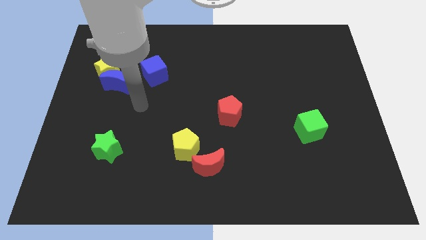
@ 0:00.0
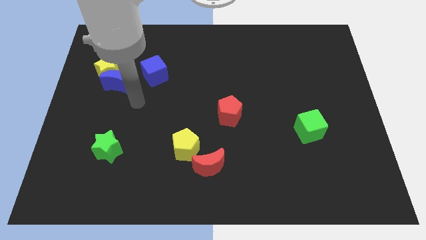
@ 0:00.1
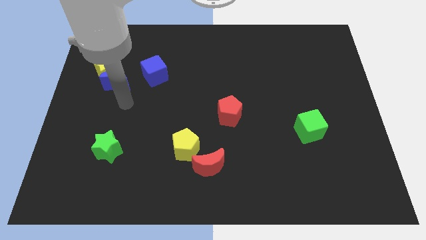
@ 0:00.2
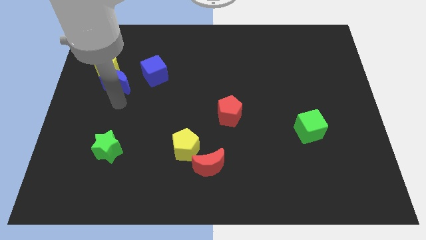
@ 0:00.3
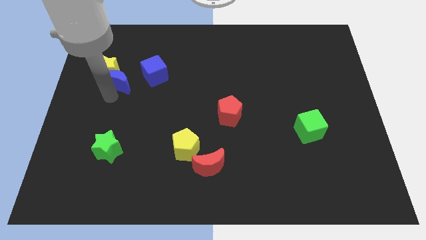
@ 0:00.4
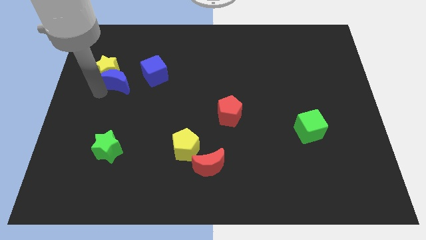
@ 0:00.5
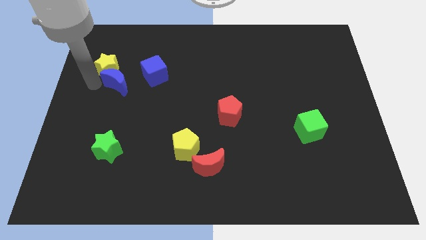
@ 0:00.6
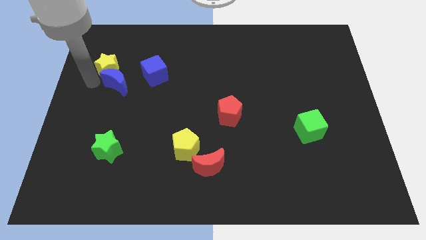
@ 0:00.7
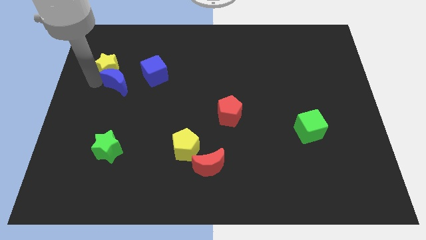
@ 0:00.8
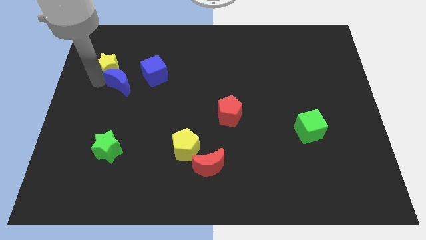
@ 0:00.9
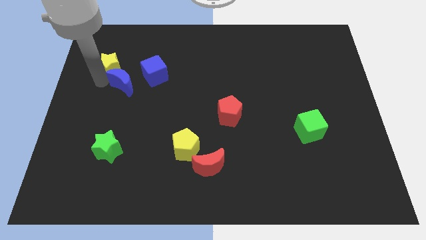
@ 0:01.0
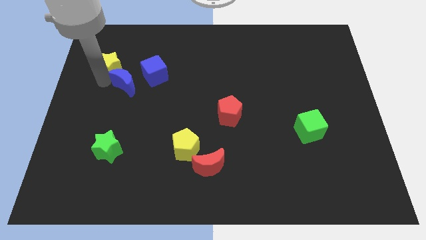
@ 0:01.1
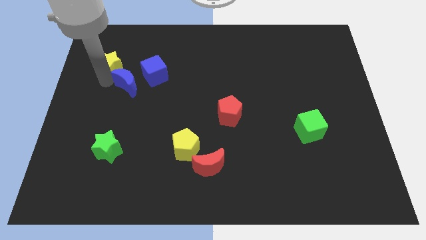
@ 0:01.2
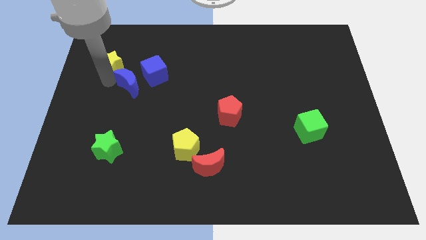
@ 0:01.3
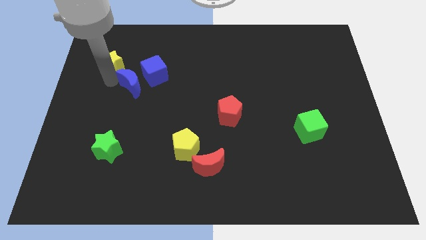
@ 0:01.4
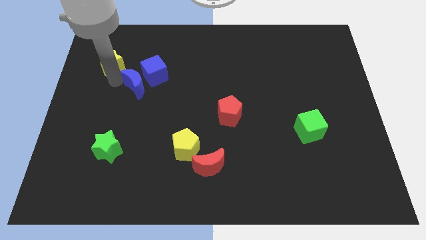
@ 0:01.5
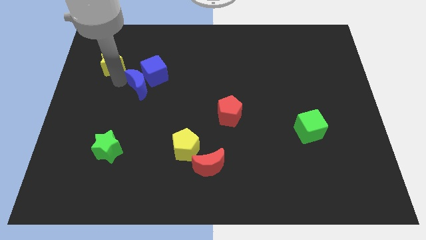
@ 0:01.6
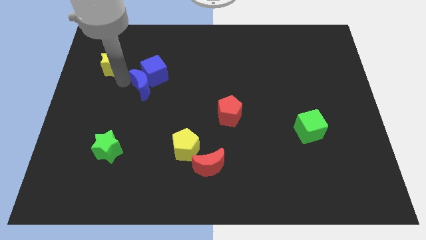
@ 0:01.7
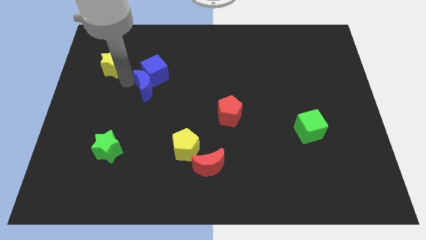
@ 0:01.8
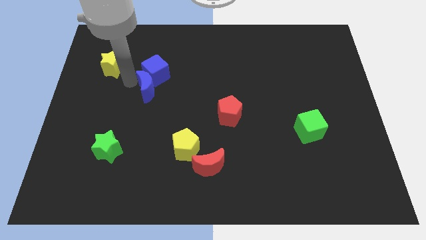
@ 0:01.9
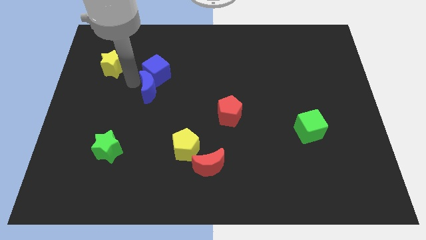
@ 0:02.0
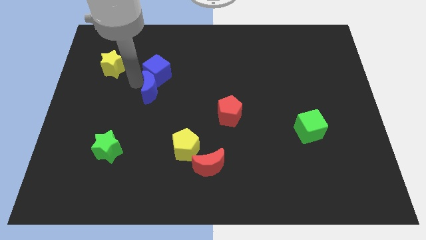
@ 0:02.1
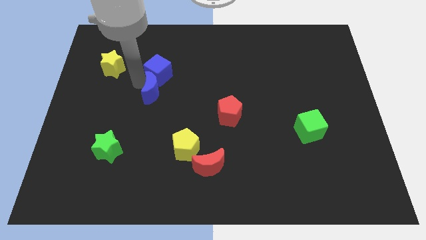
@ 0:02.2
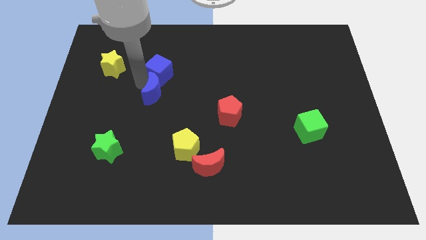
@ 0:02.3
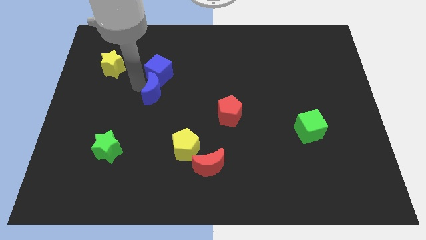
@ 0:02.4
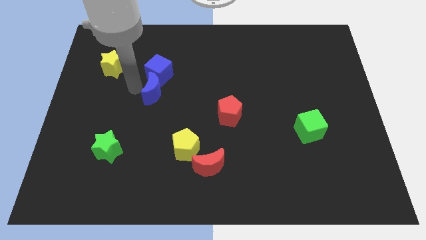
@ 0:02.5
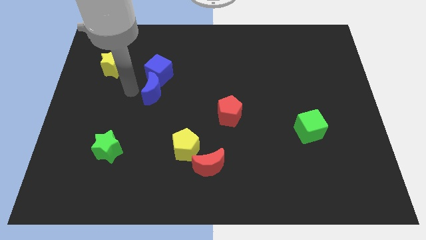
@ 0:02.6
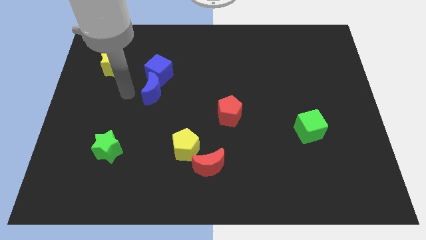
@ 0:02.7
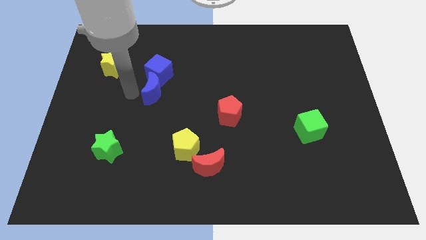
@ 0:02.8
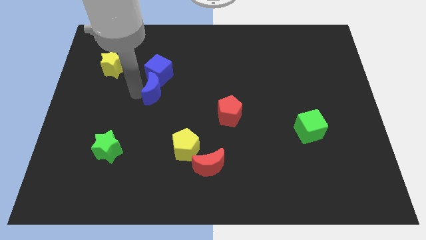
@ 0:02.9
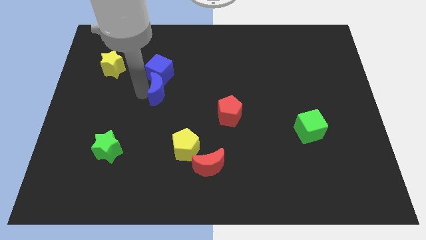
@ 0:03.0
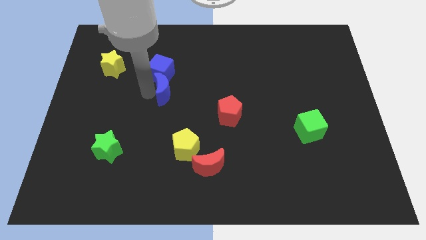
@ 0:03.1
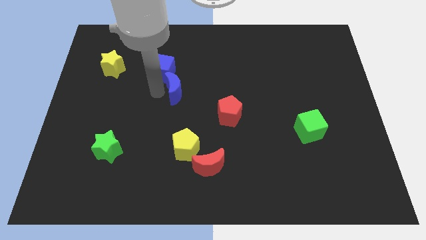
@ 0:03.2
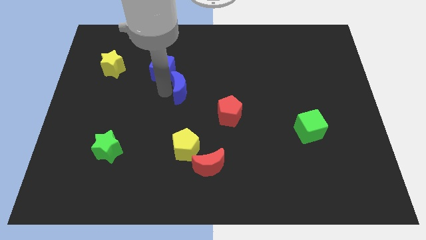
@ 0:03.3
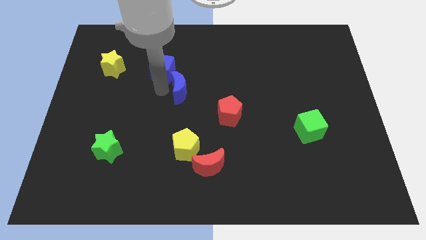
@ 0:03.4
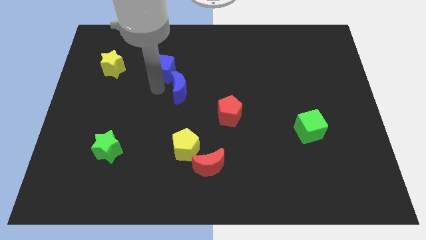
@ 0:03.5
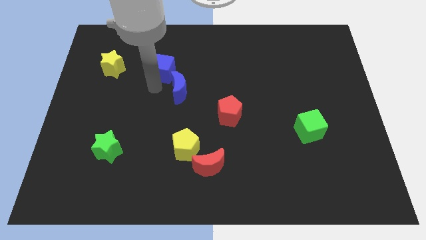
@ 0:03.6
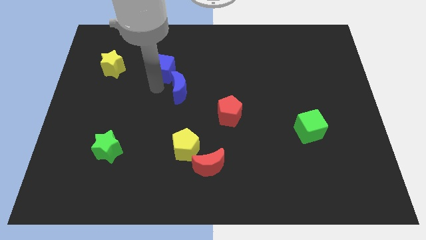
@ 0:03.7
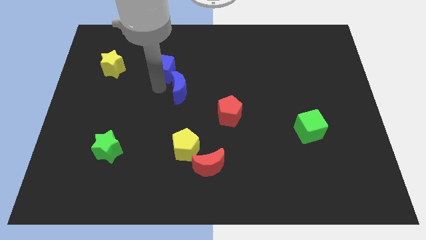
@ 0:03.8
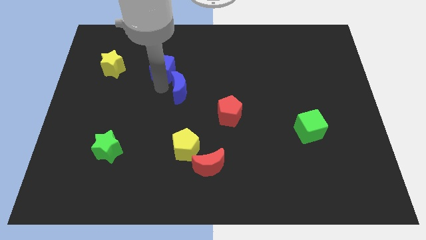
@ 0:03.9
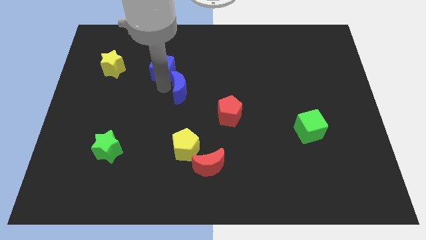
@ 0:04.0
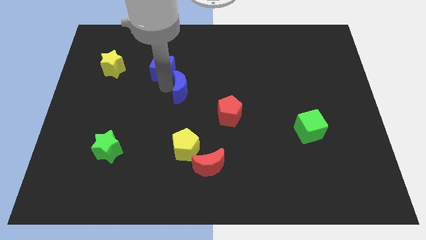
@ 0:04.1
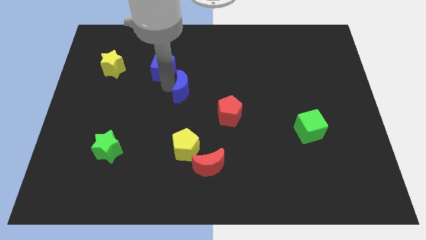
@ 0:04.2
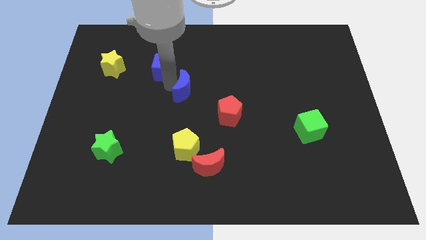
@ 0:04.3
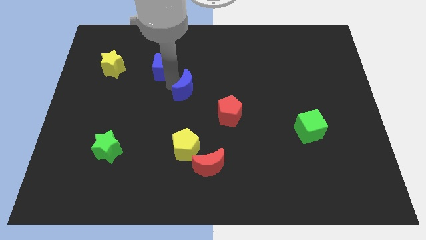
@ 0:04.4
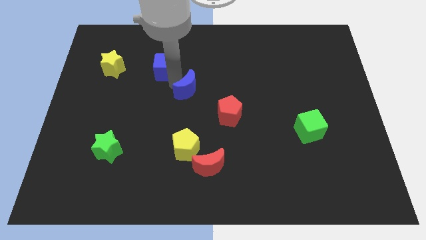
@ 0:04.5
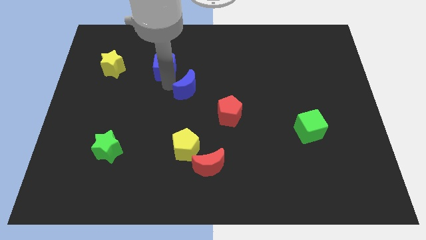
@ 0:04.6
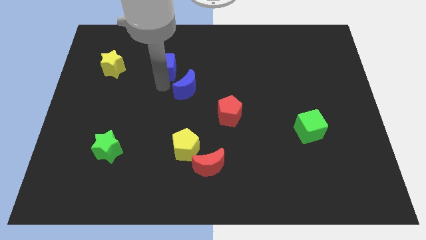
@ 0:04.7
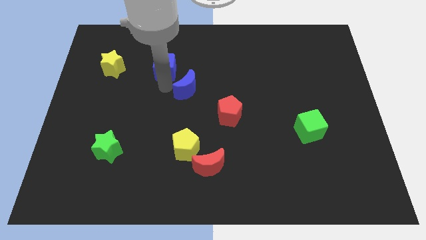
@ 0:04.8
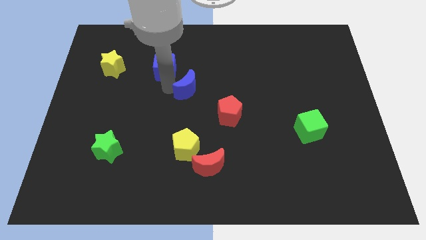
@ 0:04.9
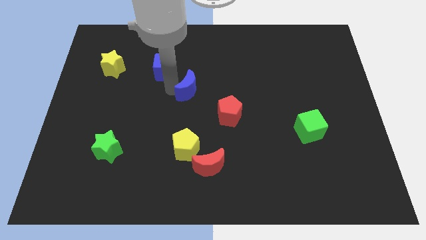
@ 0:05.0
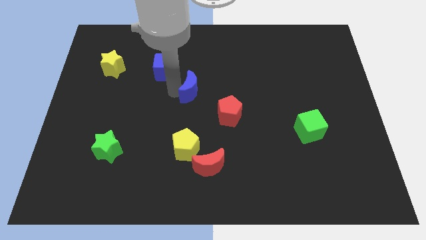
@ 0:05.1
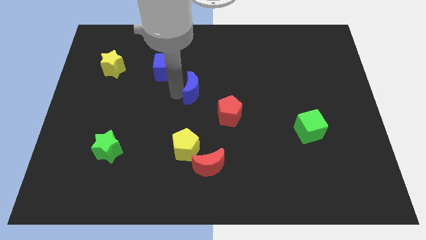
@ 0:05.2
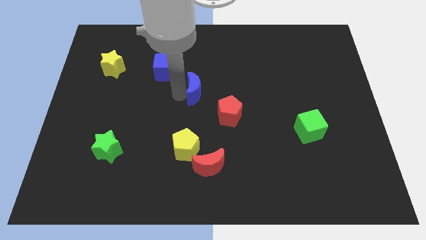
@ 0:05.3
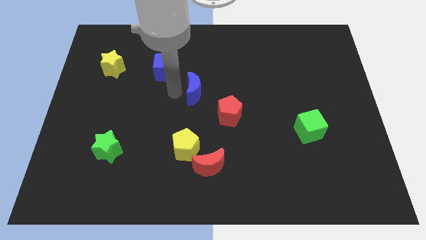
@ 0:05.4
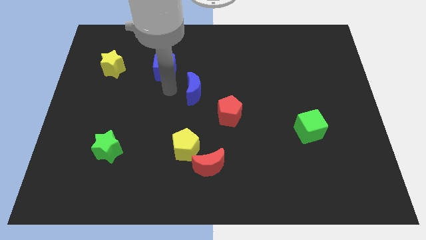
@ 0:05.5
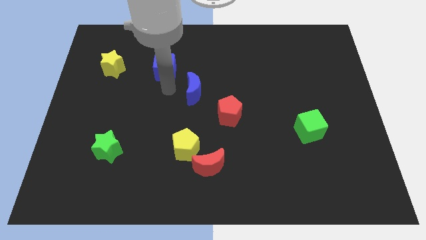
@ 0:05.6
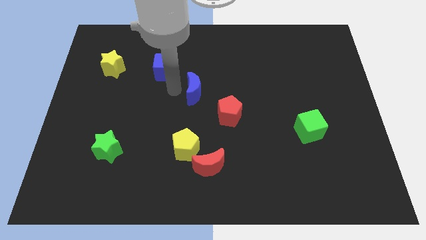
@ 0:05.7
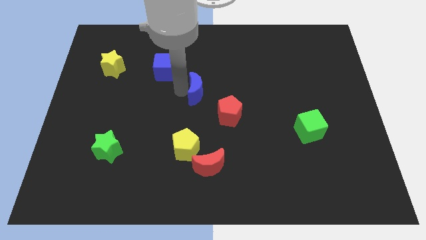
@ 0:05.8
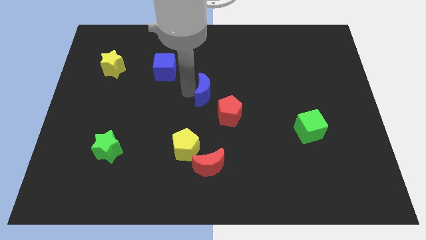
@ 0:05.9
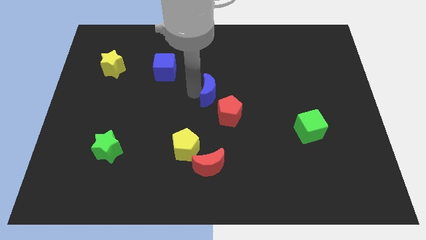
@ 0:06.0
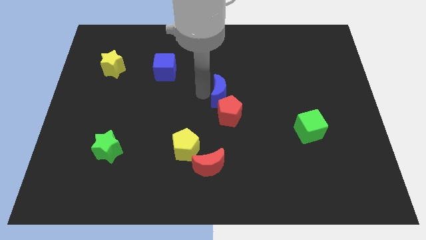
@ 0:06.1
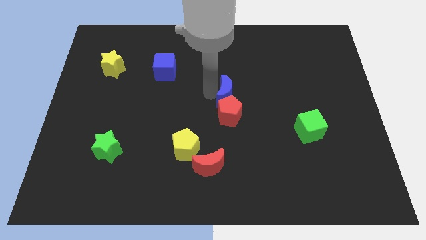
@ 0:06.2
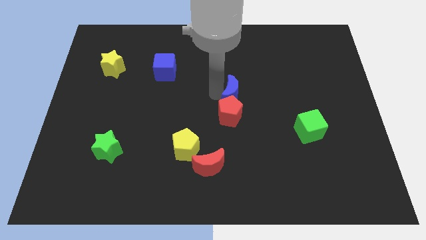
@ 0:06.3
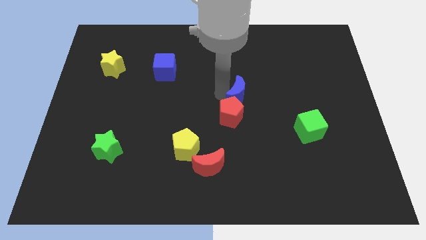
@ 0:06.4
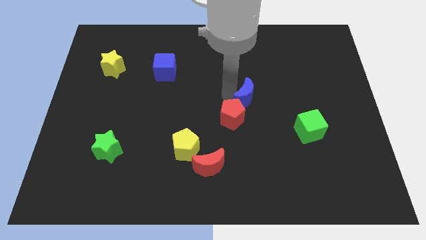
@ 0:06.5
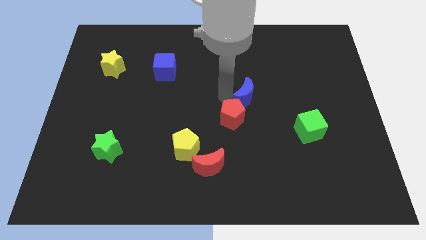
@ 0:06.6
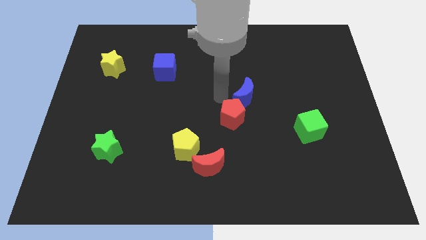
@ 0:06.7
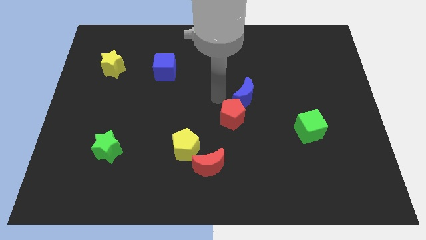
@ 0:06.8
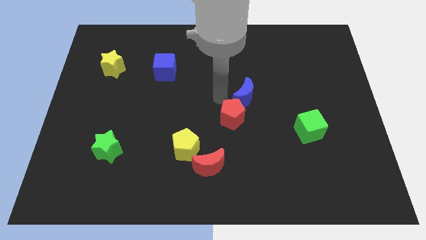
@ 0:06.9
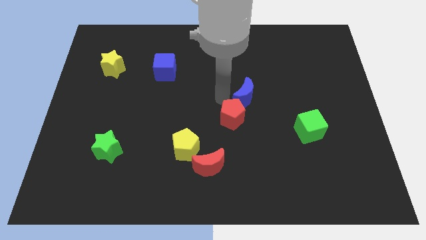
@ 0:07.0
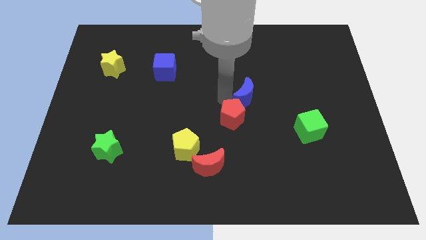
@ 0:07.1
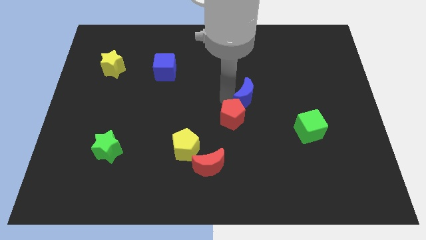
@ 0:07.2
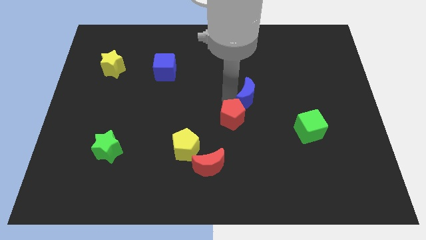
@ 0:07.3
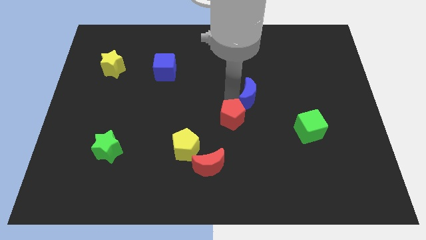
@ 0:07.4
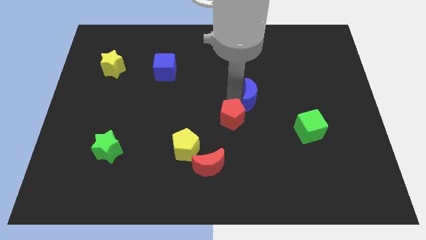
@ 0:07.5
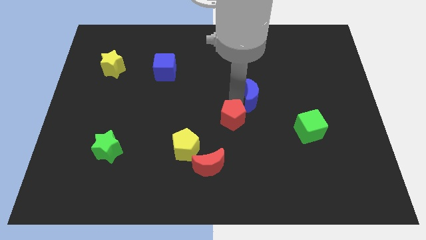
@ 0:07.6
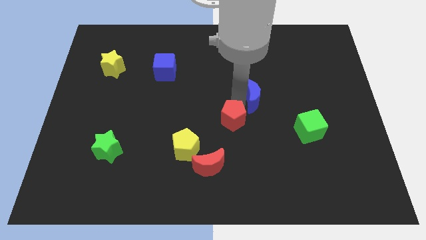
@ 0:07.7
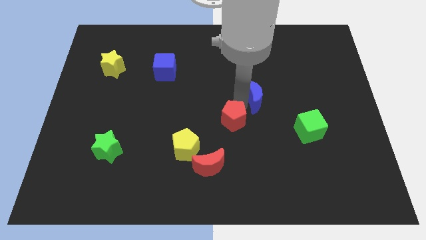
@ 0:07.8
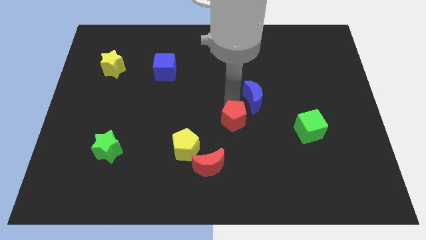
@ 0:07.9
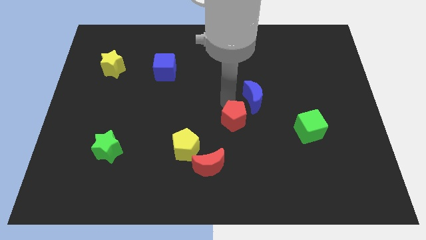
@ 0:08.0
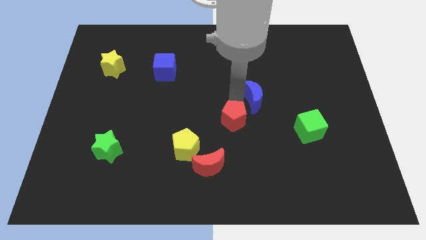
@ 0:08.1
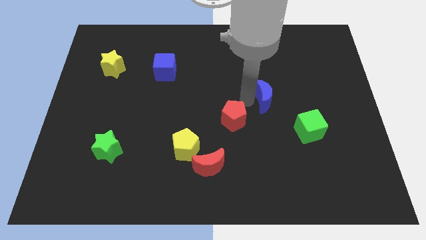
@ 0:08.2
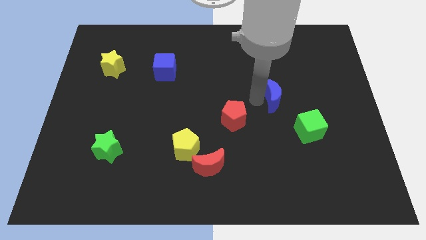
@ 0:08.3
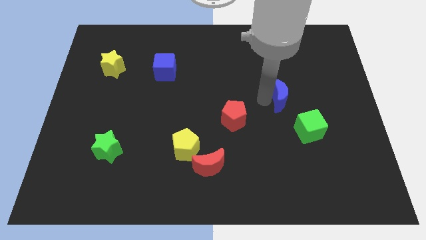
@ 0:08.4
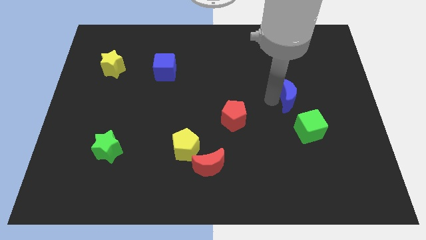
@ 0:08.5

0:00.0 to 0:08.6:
put the blue moon to the top side of the green cube
